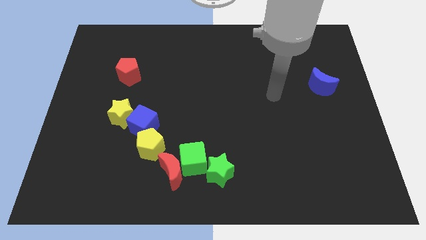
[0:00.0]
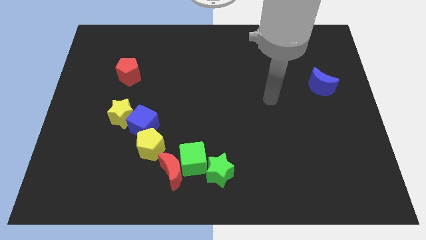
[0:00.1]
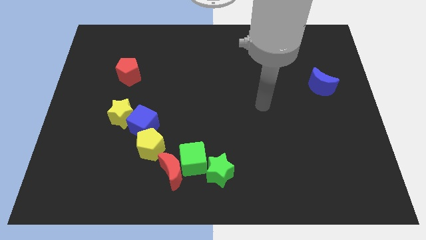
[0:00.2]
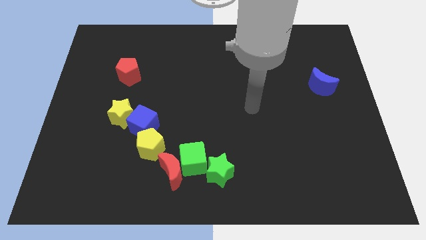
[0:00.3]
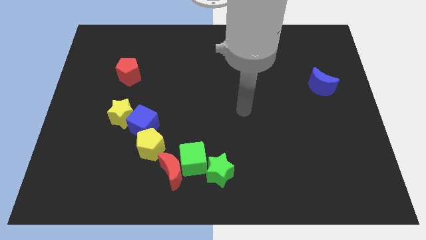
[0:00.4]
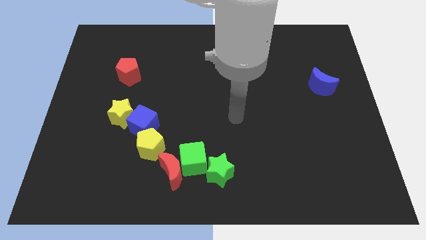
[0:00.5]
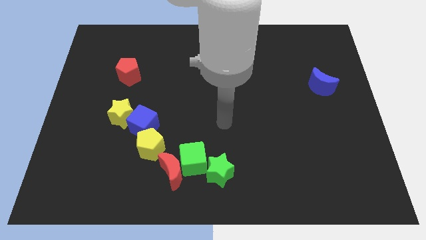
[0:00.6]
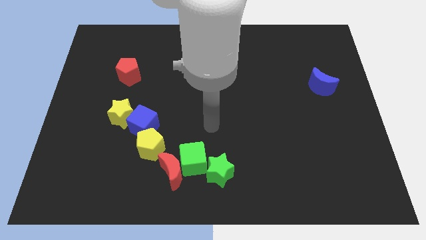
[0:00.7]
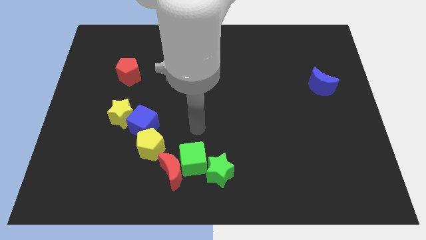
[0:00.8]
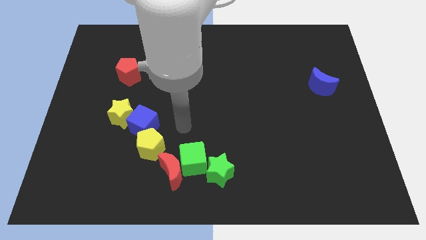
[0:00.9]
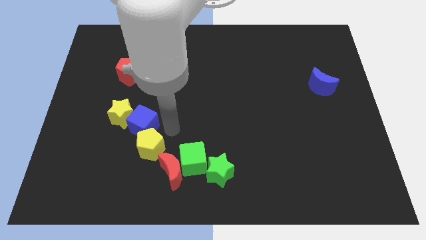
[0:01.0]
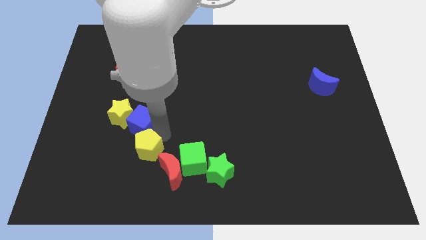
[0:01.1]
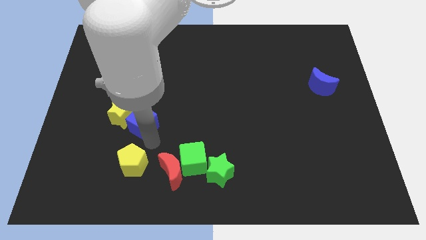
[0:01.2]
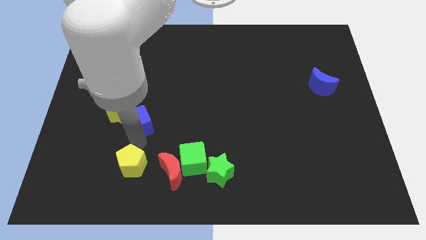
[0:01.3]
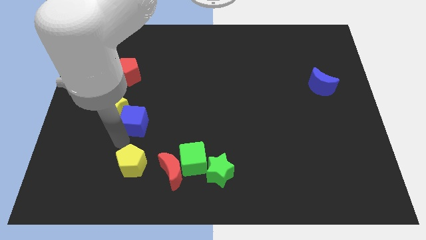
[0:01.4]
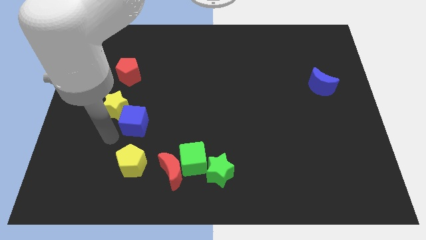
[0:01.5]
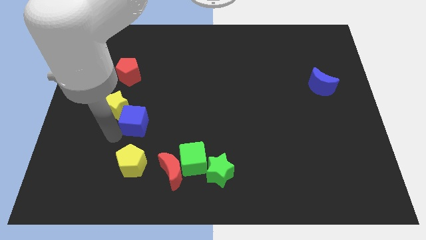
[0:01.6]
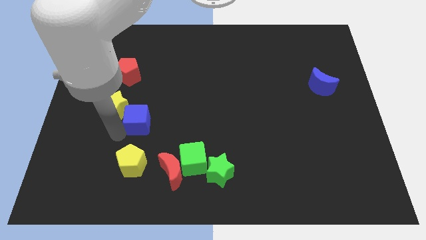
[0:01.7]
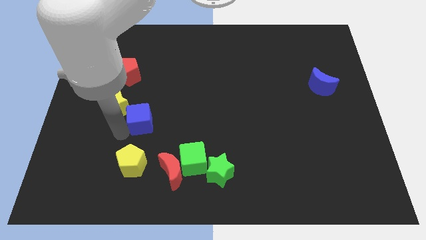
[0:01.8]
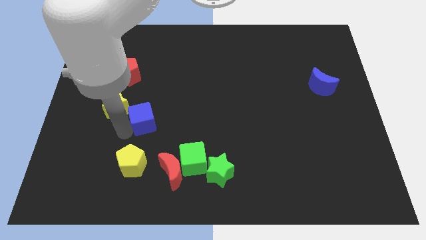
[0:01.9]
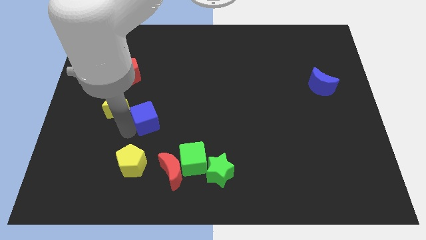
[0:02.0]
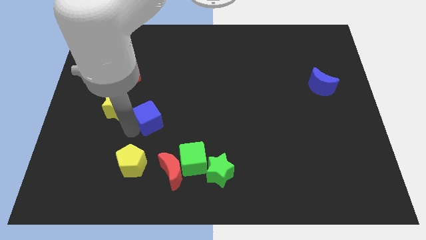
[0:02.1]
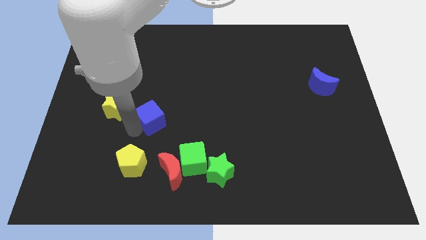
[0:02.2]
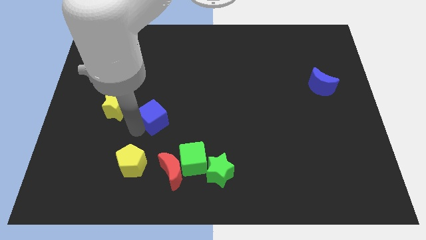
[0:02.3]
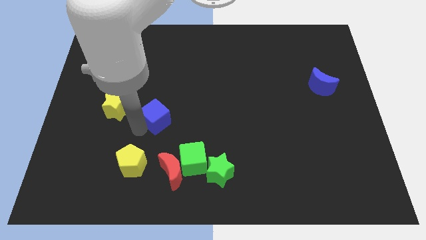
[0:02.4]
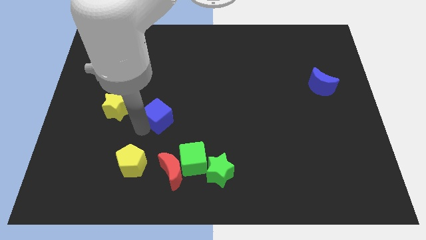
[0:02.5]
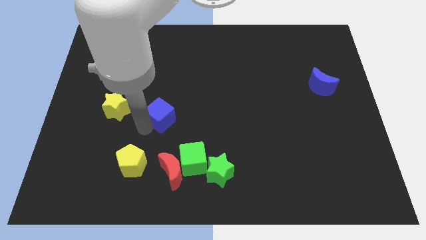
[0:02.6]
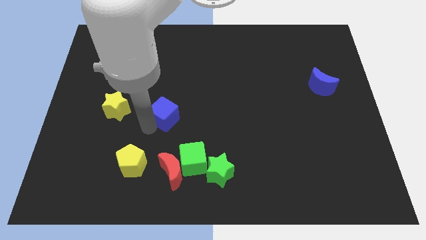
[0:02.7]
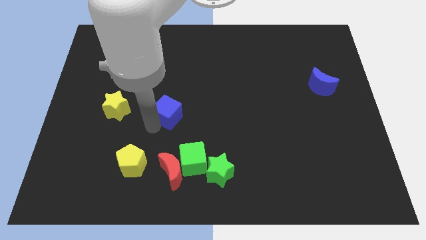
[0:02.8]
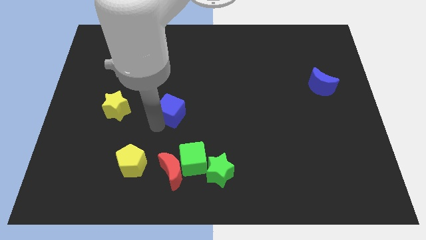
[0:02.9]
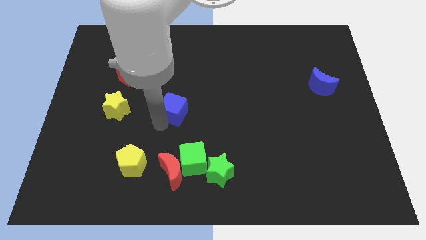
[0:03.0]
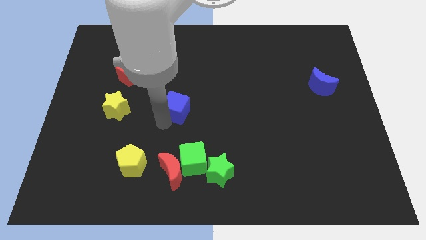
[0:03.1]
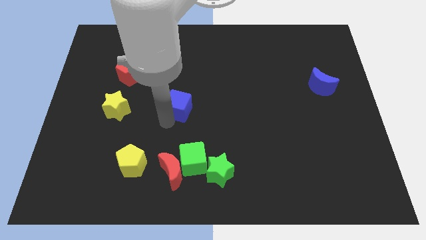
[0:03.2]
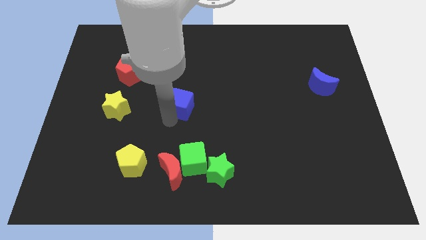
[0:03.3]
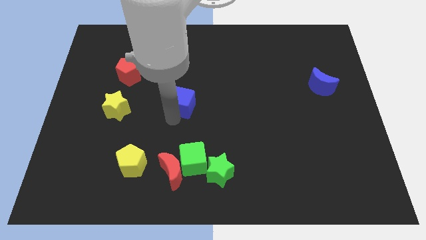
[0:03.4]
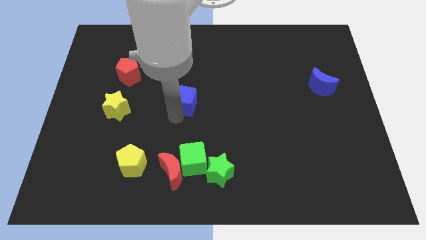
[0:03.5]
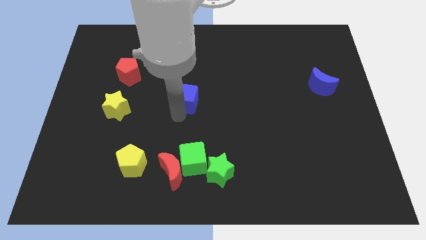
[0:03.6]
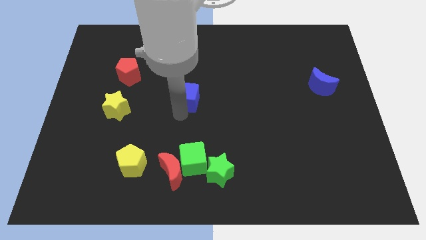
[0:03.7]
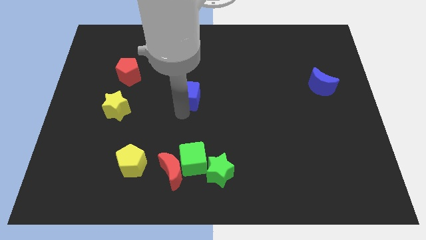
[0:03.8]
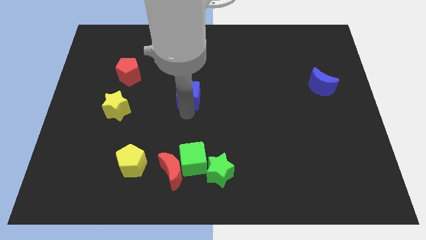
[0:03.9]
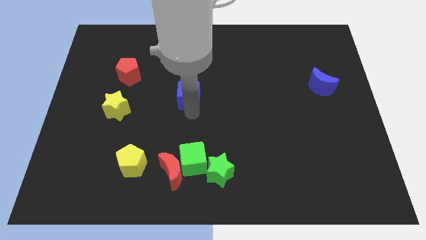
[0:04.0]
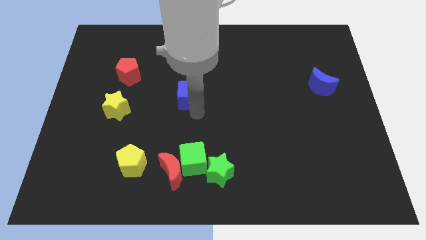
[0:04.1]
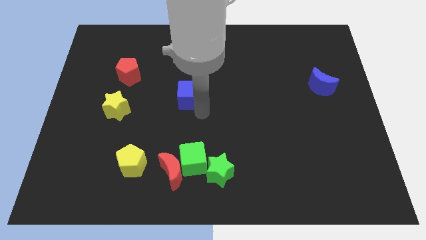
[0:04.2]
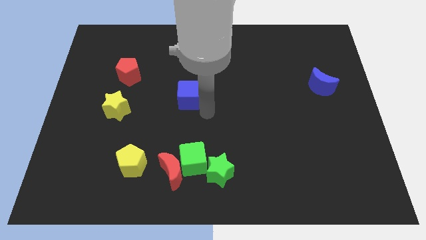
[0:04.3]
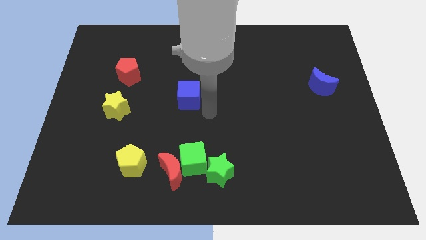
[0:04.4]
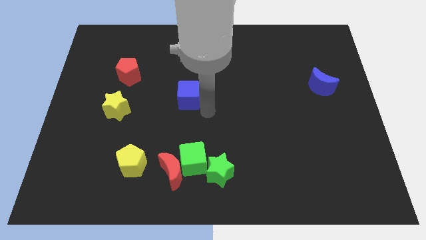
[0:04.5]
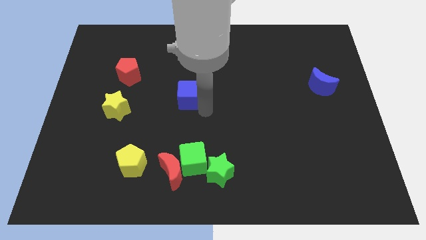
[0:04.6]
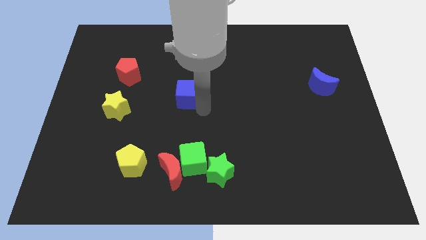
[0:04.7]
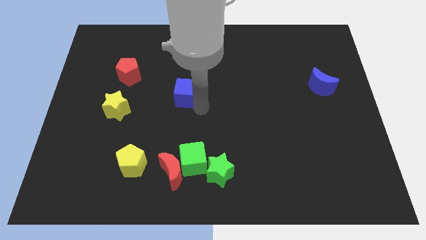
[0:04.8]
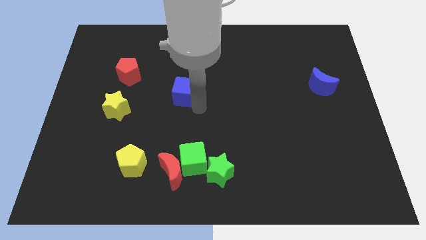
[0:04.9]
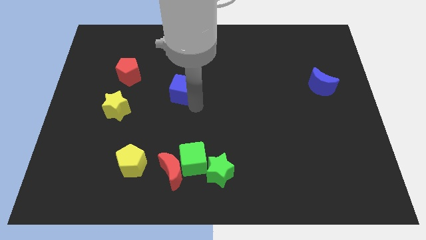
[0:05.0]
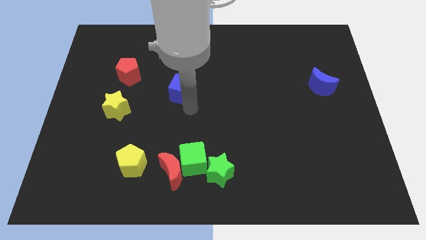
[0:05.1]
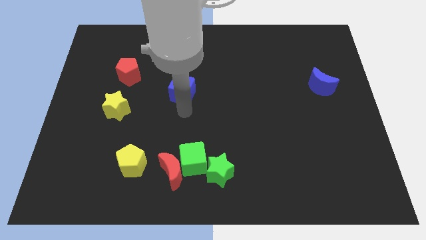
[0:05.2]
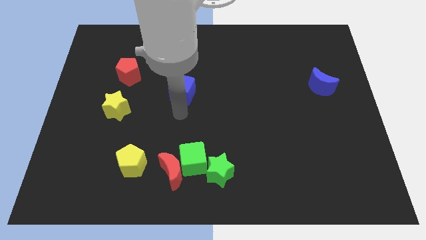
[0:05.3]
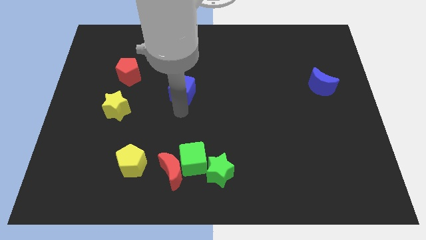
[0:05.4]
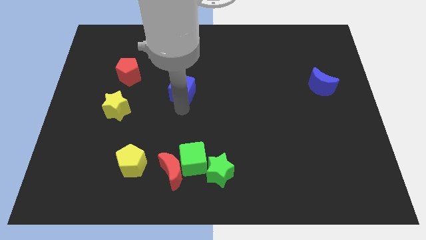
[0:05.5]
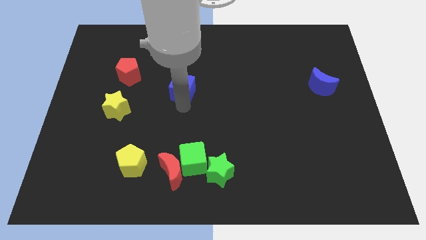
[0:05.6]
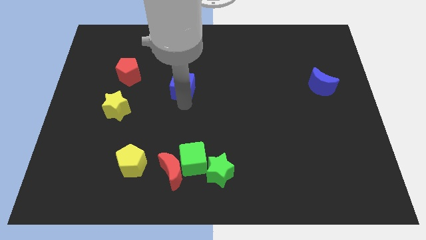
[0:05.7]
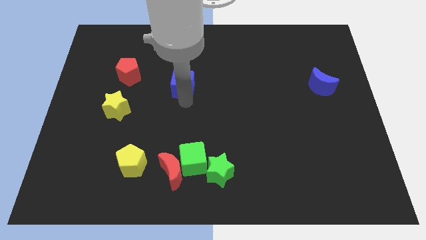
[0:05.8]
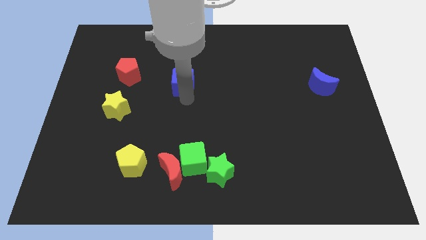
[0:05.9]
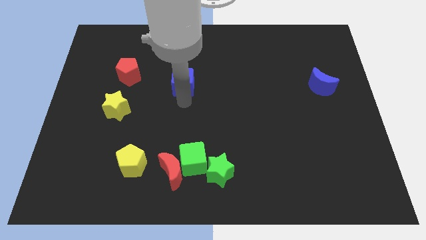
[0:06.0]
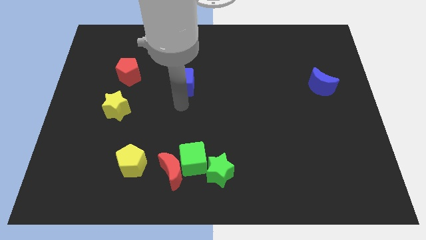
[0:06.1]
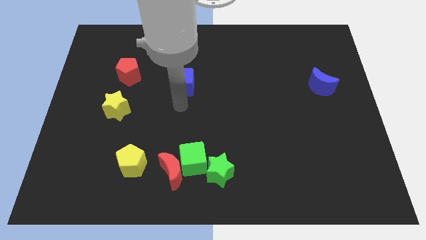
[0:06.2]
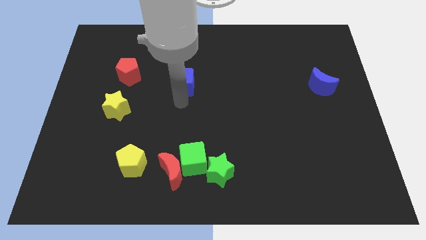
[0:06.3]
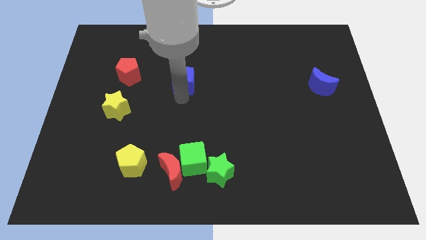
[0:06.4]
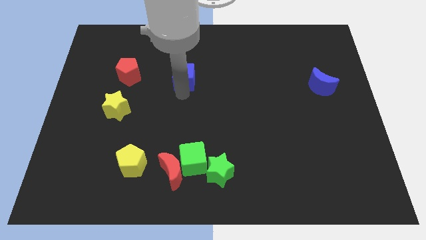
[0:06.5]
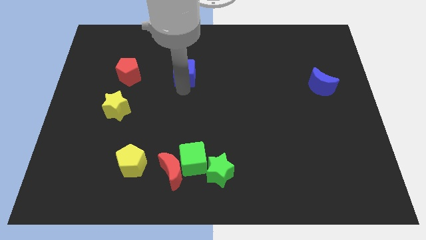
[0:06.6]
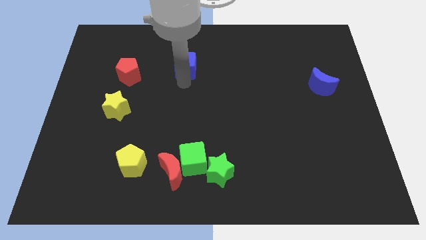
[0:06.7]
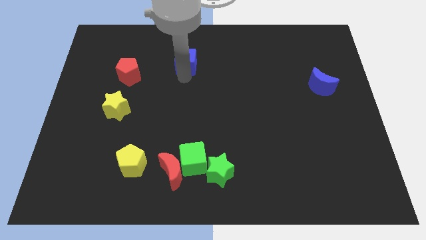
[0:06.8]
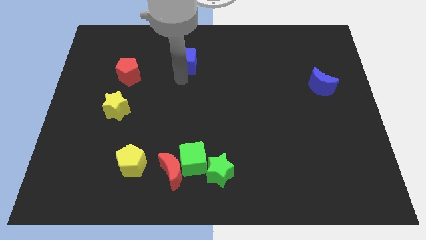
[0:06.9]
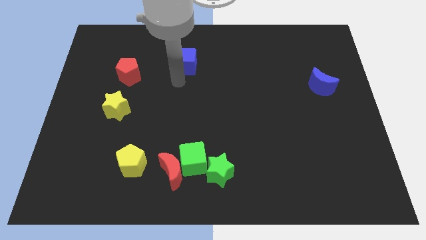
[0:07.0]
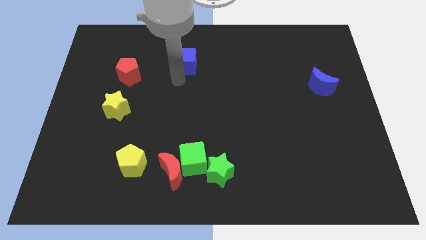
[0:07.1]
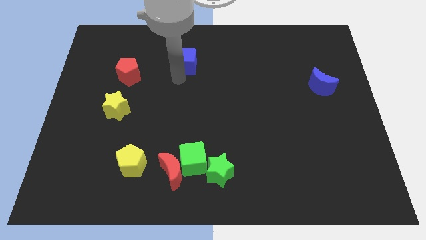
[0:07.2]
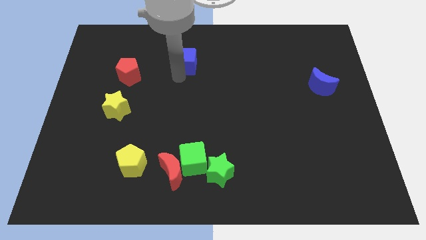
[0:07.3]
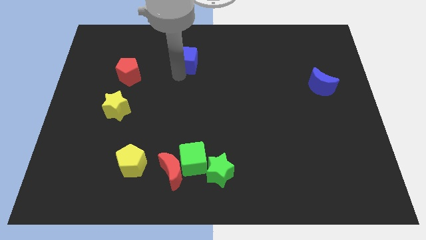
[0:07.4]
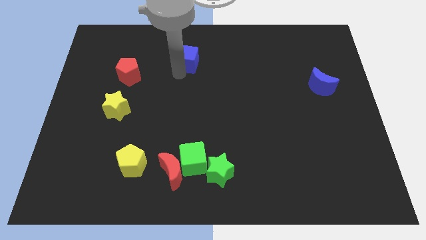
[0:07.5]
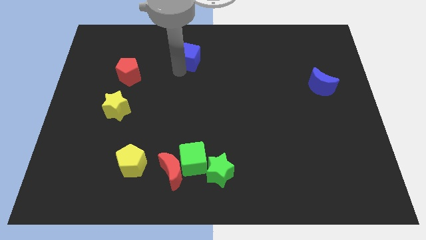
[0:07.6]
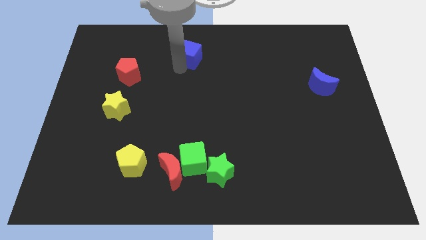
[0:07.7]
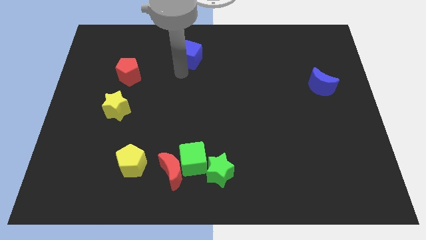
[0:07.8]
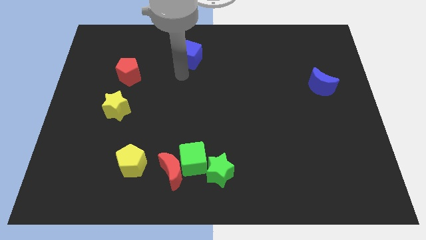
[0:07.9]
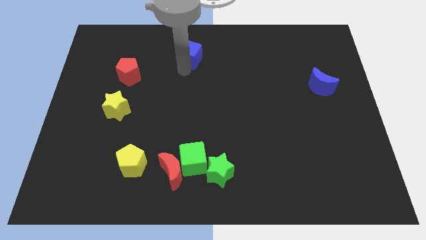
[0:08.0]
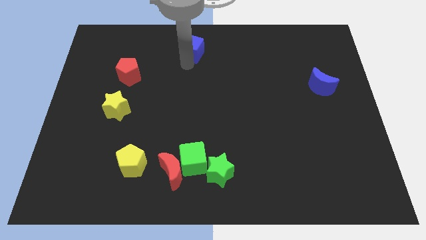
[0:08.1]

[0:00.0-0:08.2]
put the blue cube to the top side
